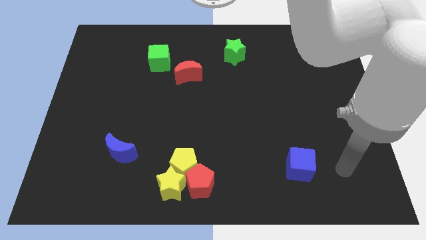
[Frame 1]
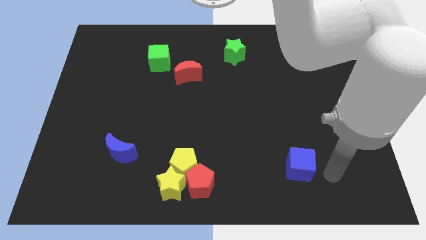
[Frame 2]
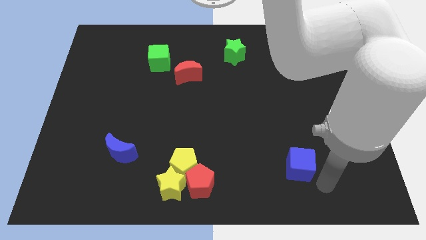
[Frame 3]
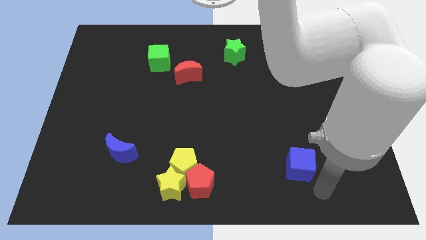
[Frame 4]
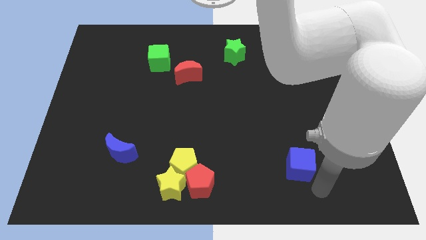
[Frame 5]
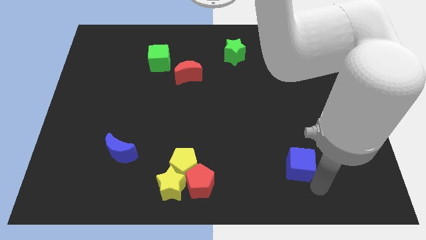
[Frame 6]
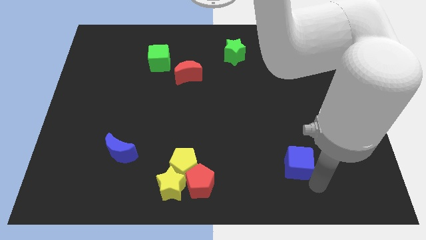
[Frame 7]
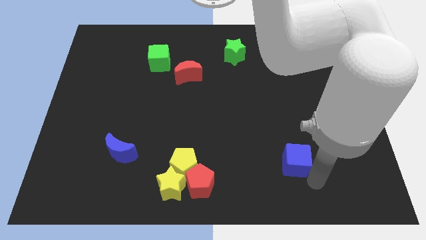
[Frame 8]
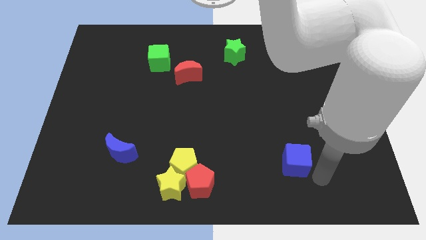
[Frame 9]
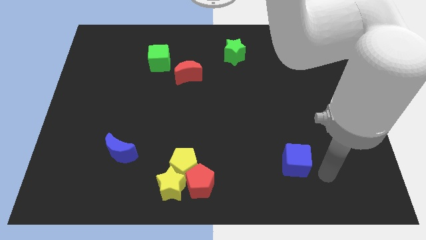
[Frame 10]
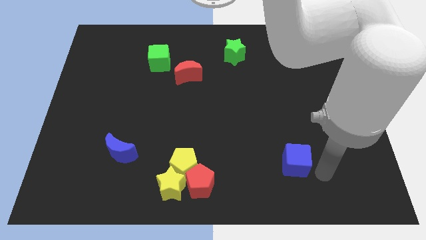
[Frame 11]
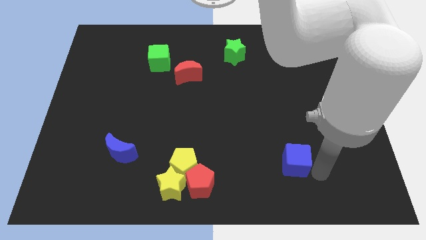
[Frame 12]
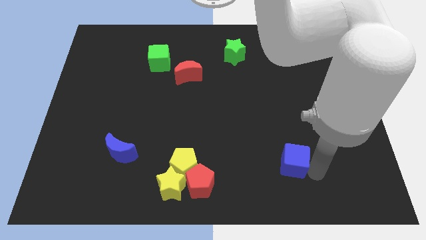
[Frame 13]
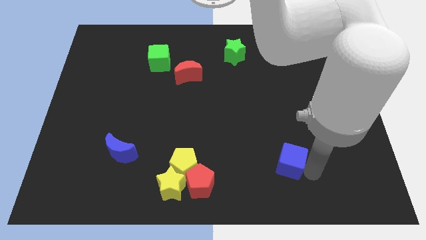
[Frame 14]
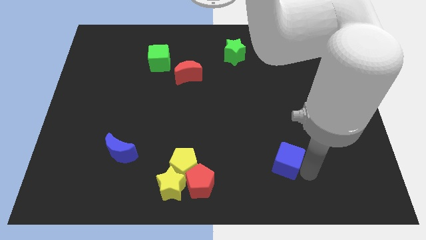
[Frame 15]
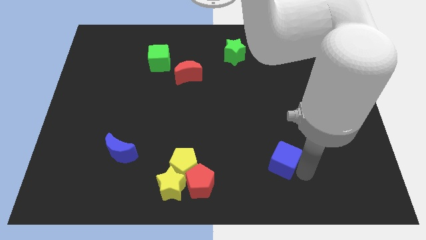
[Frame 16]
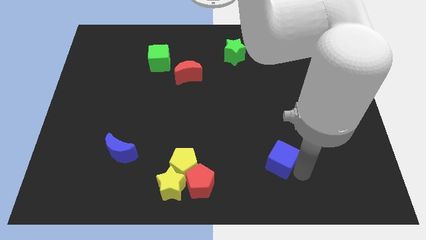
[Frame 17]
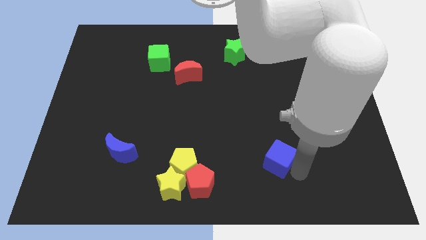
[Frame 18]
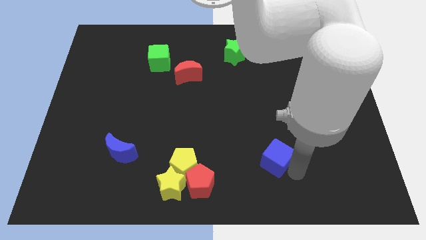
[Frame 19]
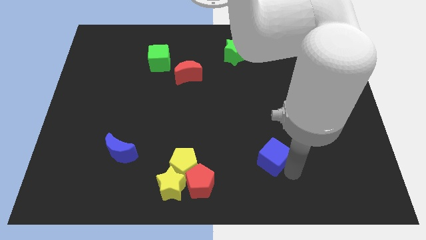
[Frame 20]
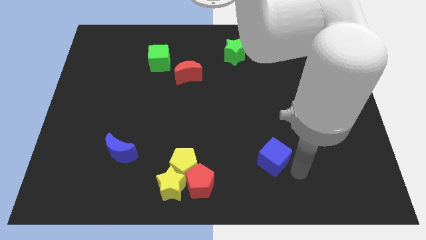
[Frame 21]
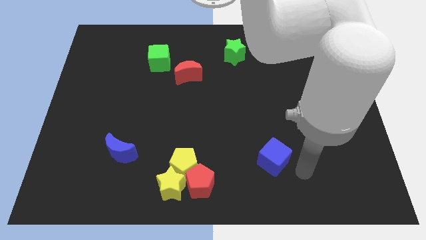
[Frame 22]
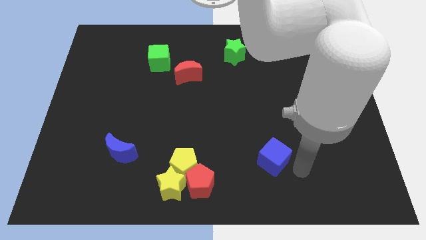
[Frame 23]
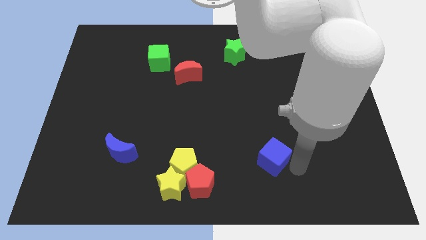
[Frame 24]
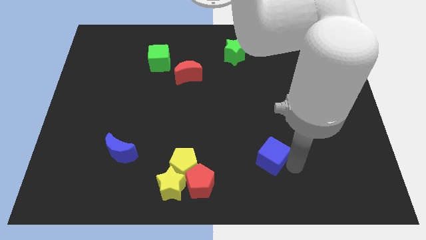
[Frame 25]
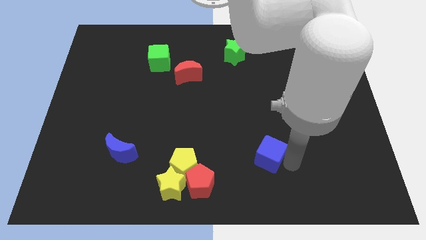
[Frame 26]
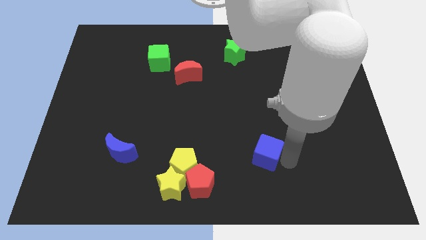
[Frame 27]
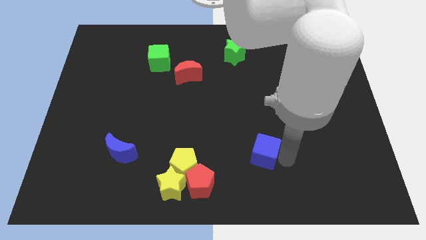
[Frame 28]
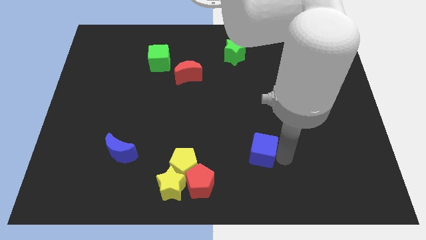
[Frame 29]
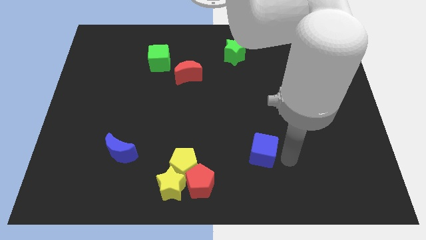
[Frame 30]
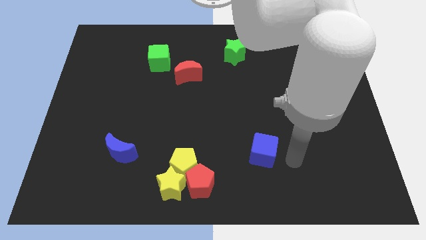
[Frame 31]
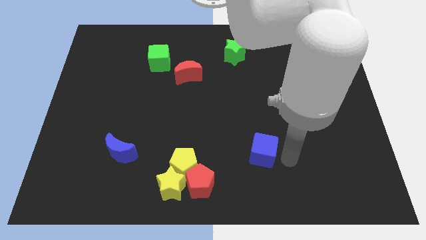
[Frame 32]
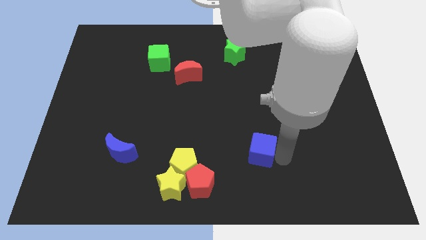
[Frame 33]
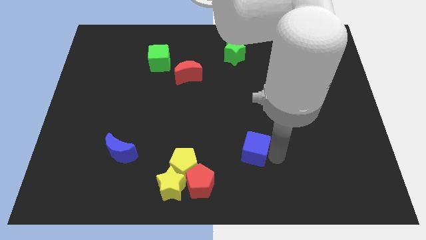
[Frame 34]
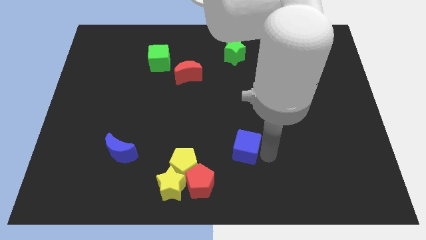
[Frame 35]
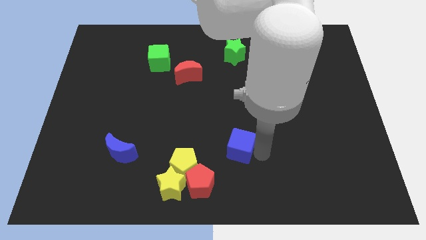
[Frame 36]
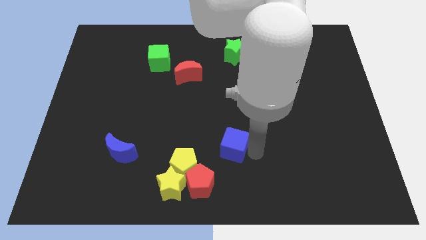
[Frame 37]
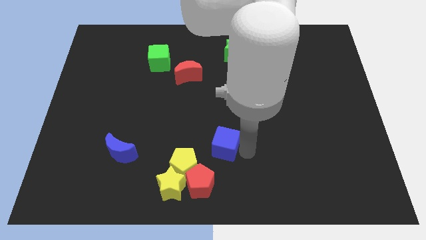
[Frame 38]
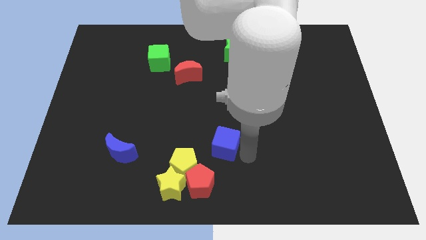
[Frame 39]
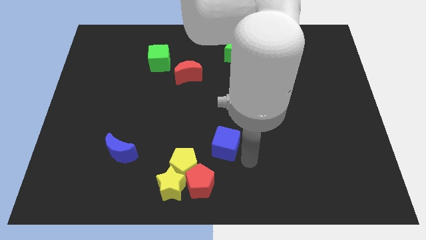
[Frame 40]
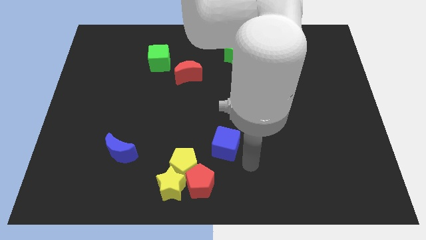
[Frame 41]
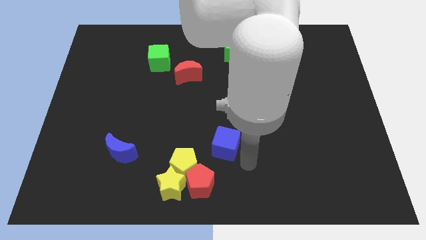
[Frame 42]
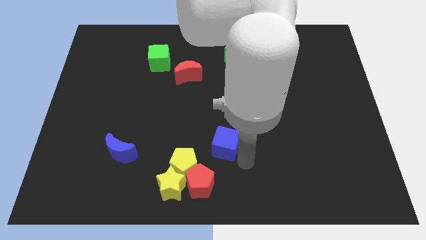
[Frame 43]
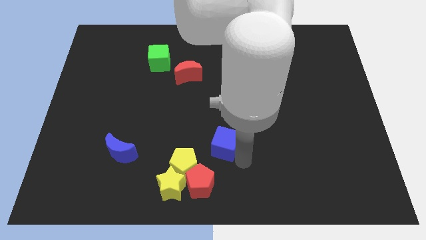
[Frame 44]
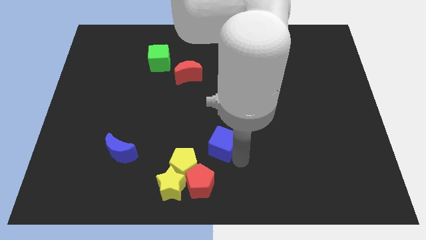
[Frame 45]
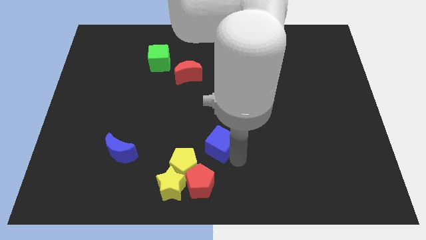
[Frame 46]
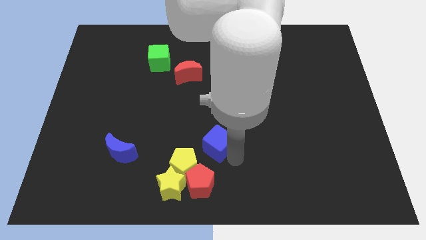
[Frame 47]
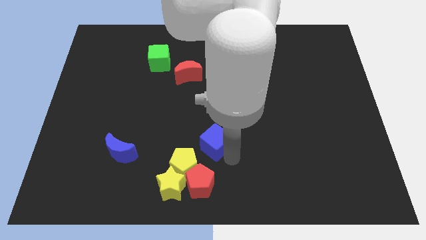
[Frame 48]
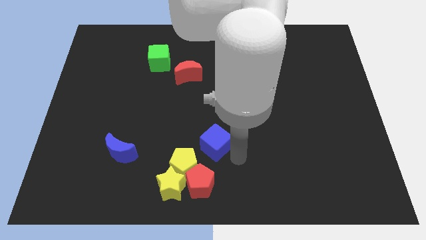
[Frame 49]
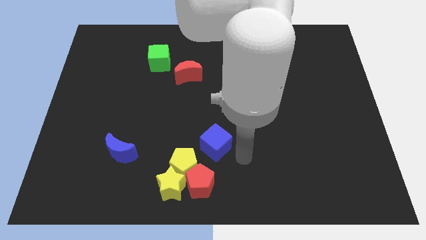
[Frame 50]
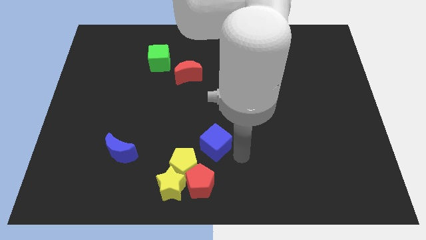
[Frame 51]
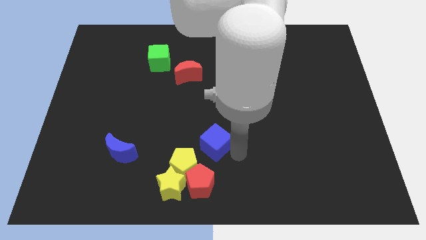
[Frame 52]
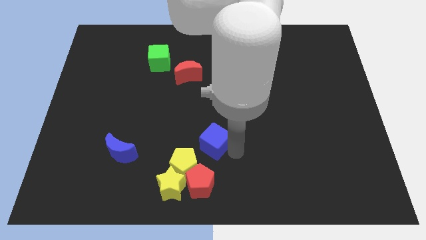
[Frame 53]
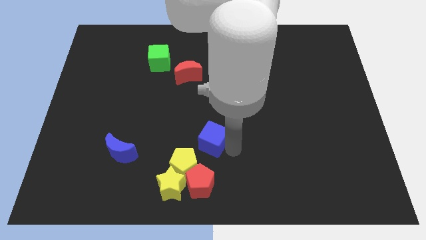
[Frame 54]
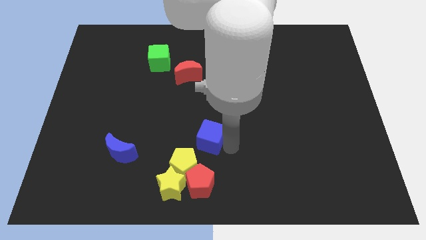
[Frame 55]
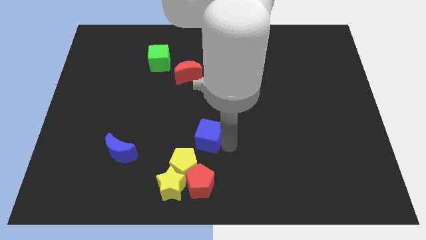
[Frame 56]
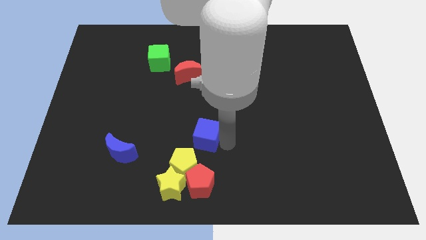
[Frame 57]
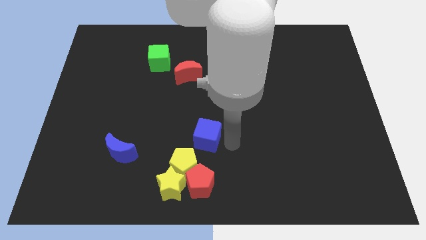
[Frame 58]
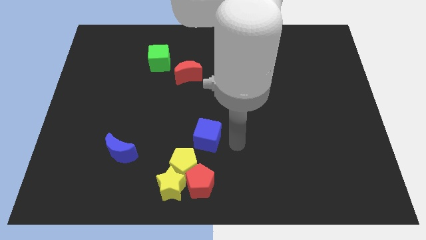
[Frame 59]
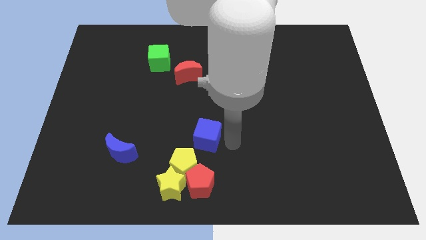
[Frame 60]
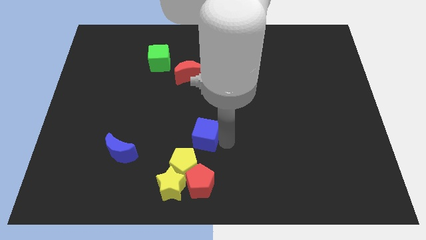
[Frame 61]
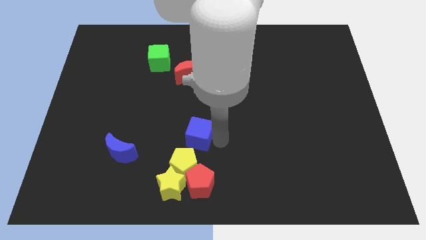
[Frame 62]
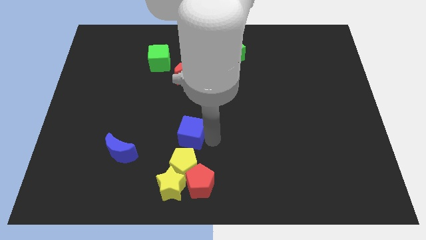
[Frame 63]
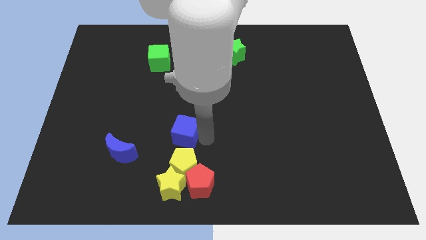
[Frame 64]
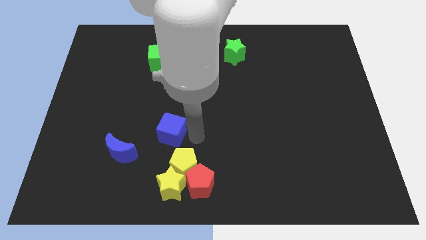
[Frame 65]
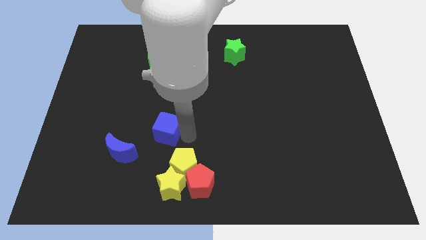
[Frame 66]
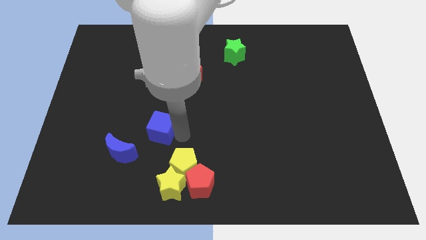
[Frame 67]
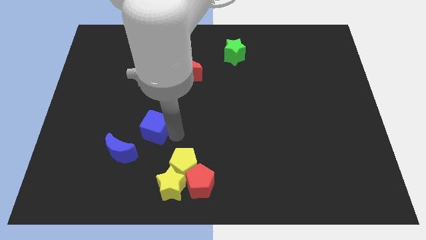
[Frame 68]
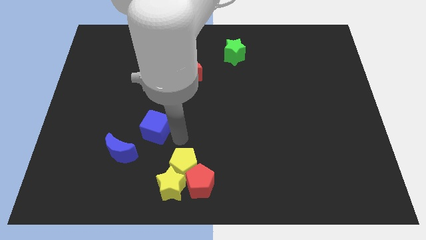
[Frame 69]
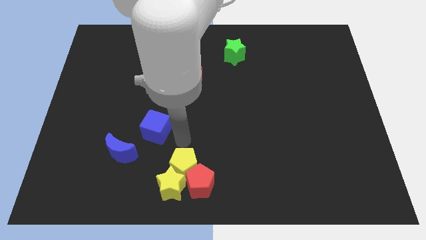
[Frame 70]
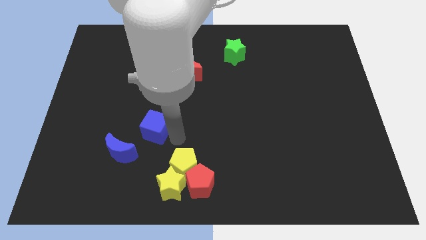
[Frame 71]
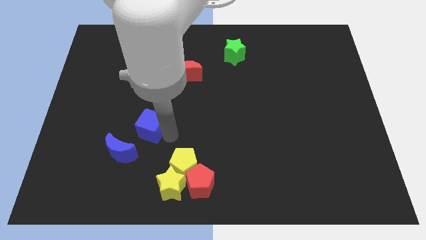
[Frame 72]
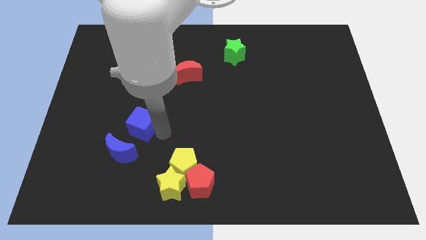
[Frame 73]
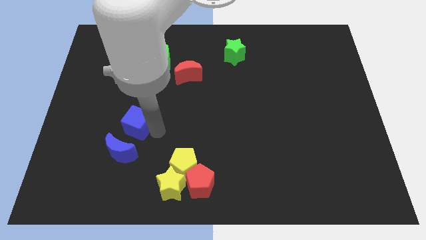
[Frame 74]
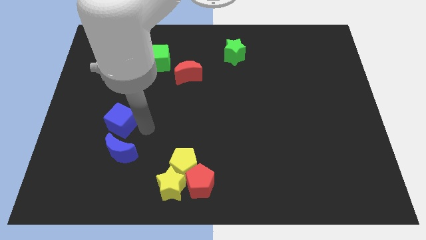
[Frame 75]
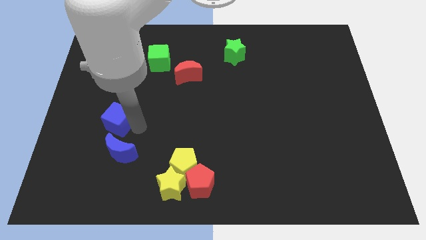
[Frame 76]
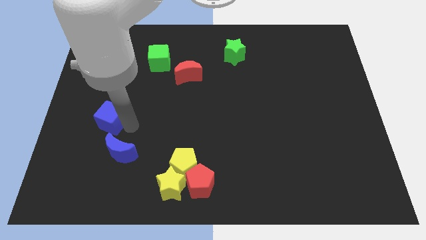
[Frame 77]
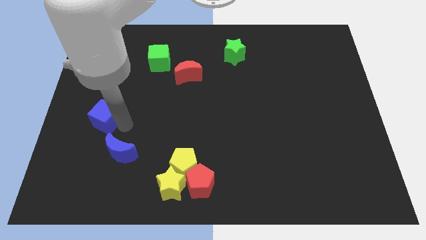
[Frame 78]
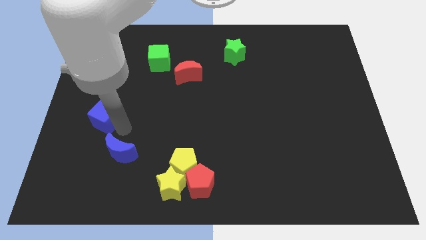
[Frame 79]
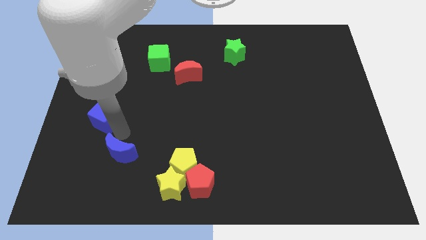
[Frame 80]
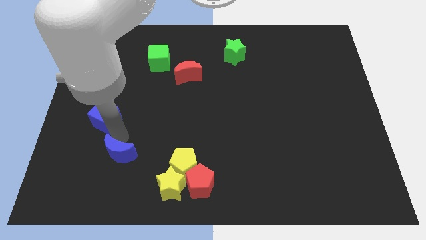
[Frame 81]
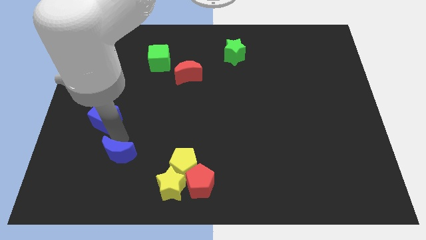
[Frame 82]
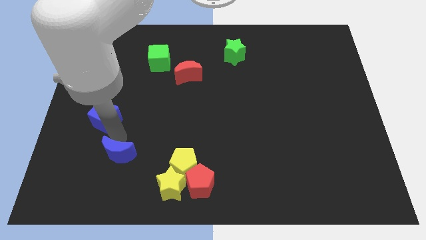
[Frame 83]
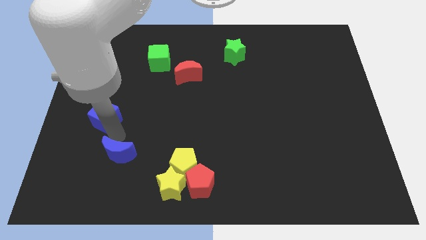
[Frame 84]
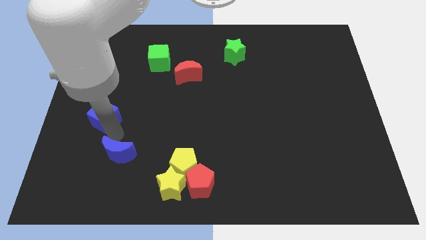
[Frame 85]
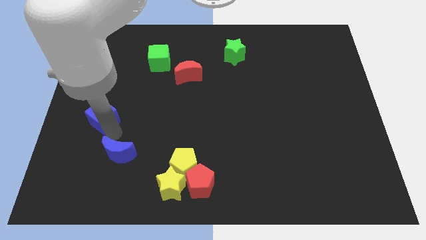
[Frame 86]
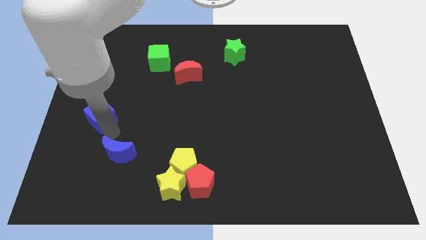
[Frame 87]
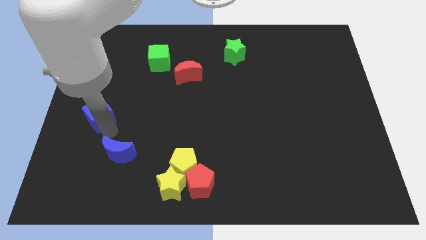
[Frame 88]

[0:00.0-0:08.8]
put the blue cube to the center left
